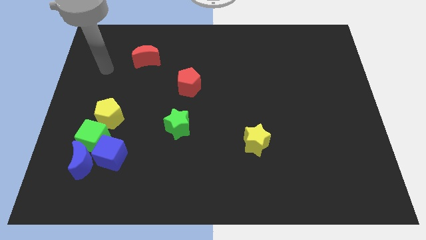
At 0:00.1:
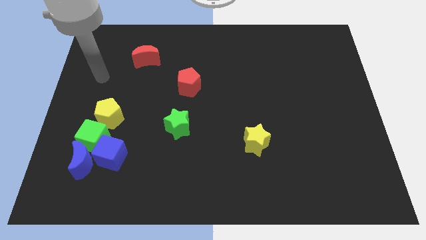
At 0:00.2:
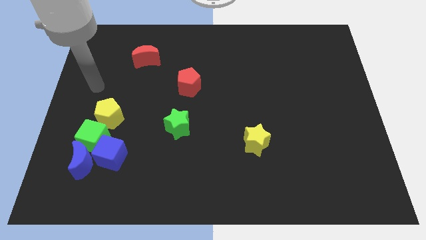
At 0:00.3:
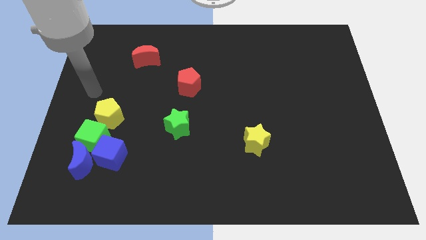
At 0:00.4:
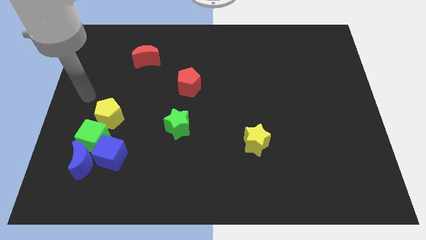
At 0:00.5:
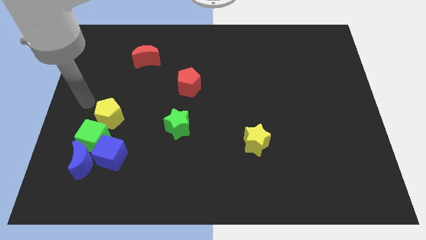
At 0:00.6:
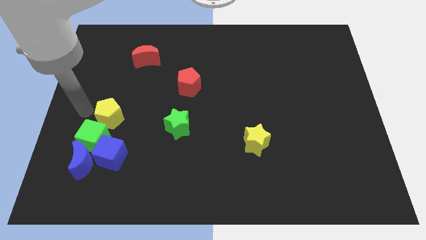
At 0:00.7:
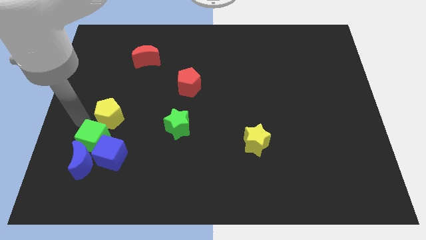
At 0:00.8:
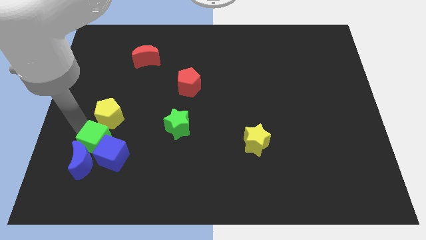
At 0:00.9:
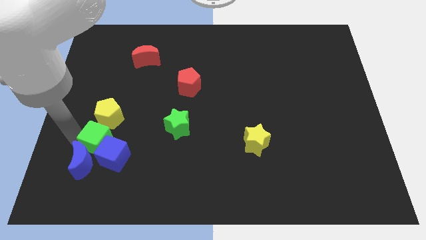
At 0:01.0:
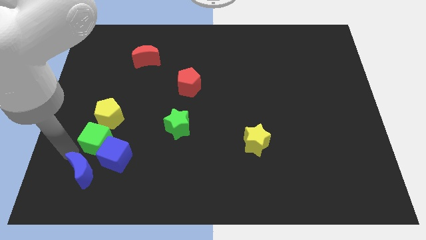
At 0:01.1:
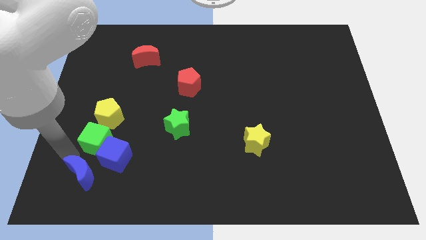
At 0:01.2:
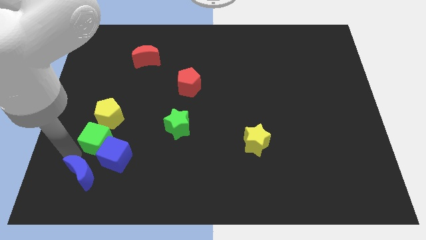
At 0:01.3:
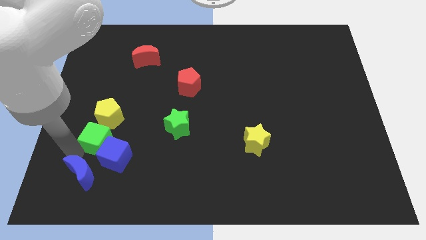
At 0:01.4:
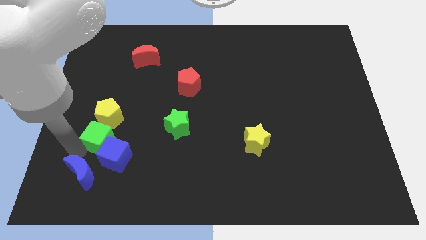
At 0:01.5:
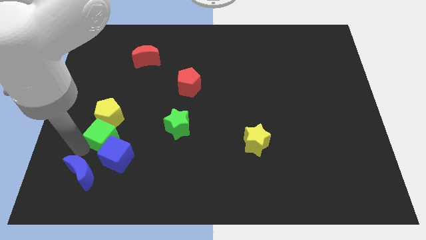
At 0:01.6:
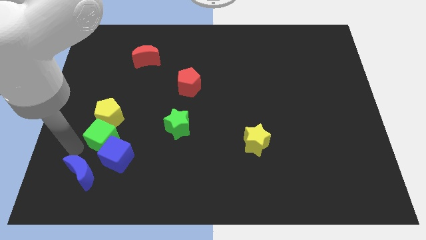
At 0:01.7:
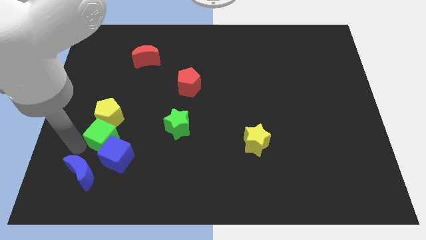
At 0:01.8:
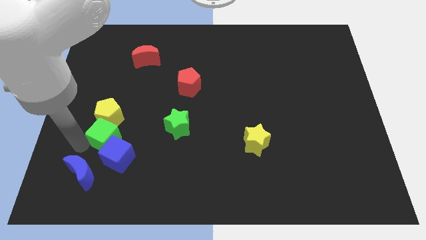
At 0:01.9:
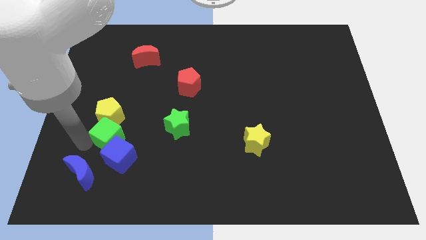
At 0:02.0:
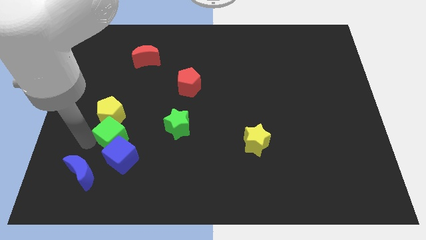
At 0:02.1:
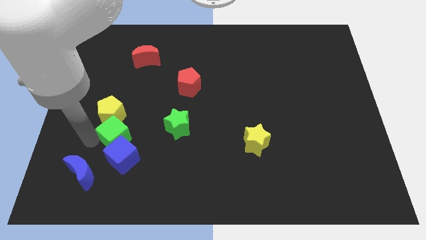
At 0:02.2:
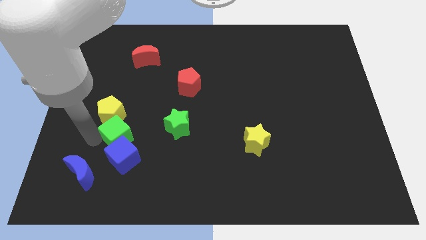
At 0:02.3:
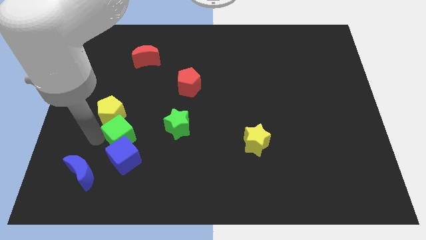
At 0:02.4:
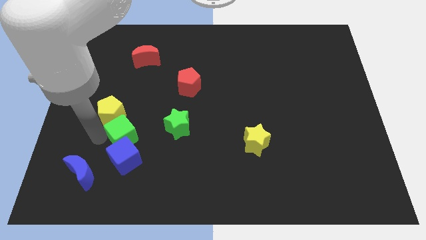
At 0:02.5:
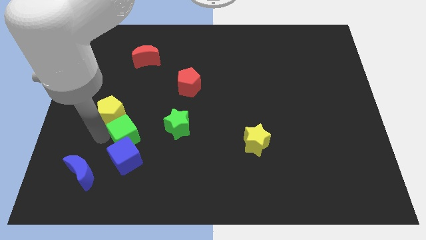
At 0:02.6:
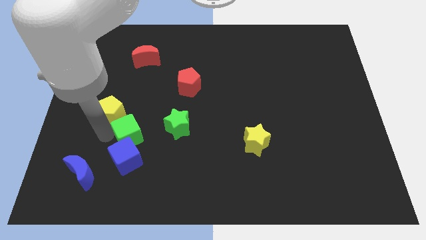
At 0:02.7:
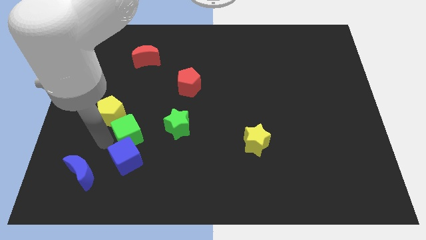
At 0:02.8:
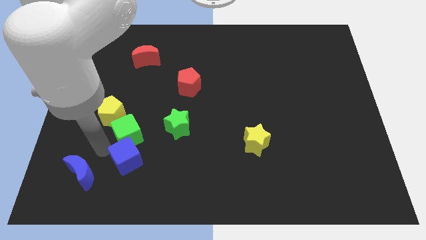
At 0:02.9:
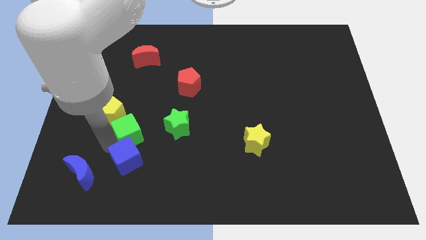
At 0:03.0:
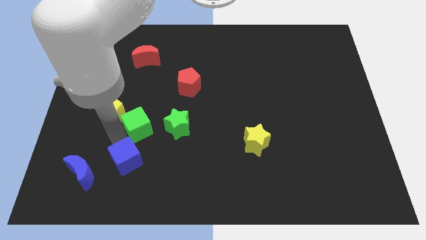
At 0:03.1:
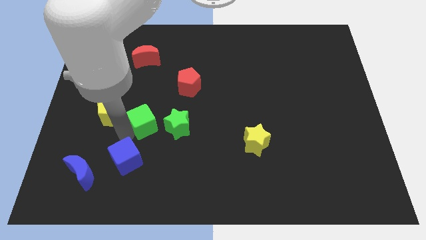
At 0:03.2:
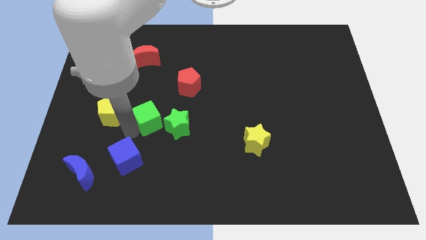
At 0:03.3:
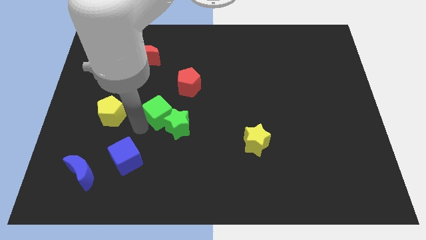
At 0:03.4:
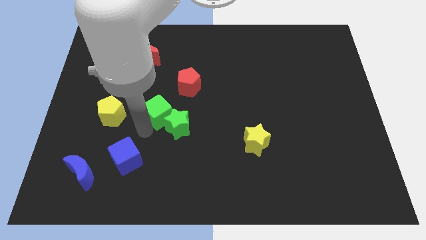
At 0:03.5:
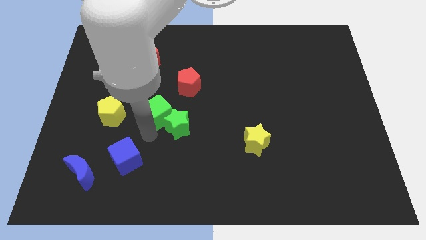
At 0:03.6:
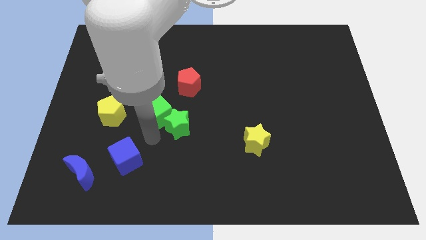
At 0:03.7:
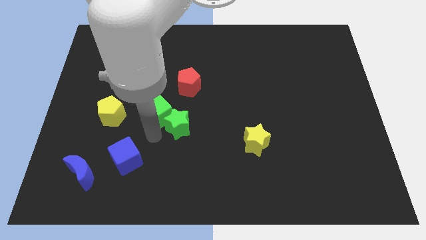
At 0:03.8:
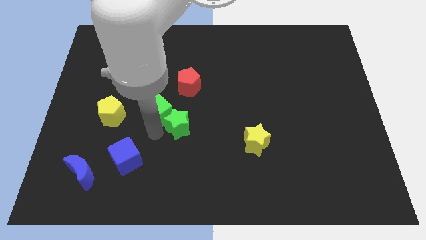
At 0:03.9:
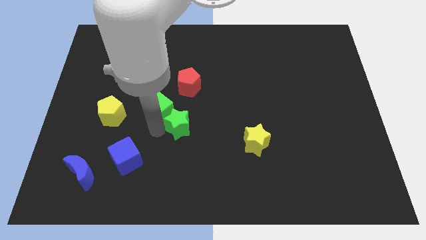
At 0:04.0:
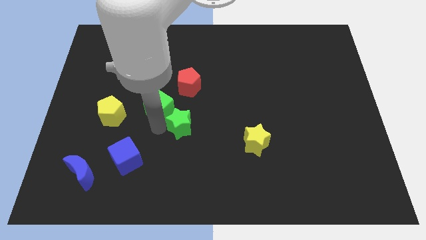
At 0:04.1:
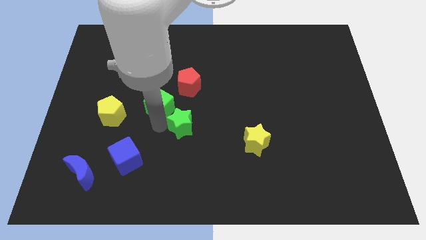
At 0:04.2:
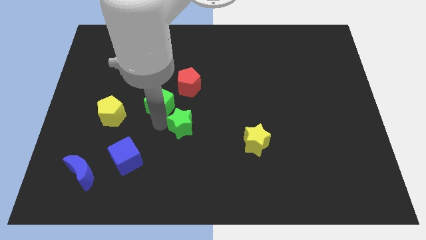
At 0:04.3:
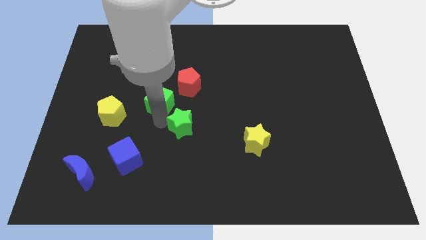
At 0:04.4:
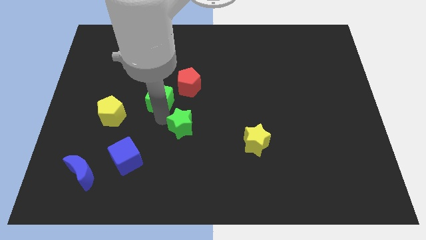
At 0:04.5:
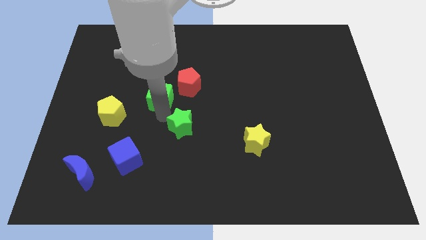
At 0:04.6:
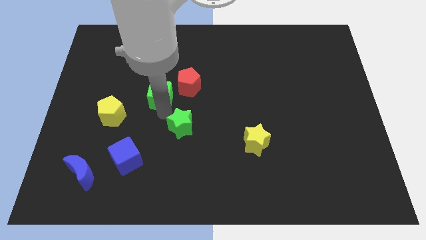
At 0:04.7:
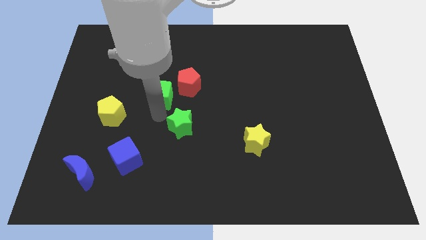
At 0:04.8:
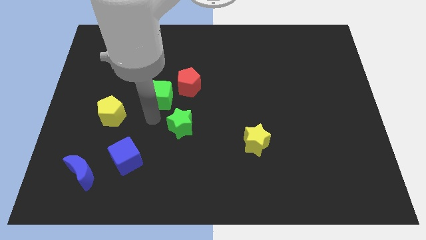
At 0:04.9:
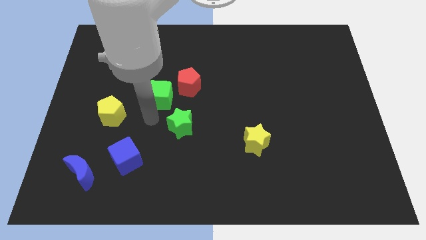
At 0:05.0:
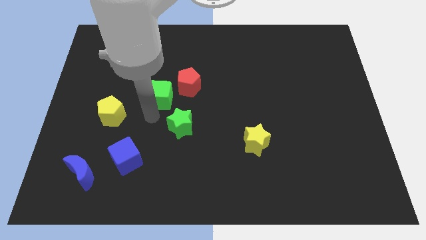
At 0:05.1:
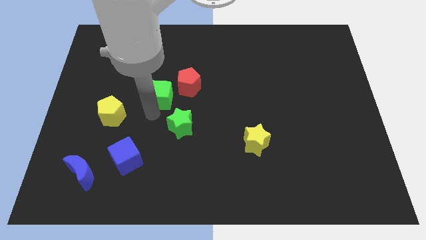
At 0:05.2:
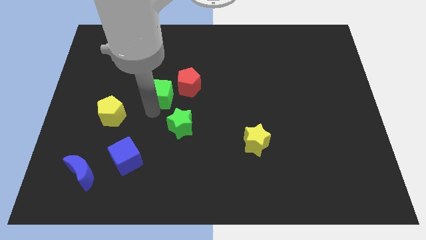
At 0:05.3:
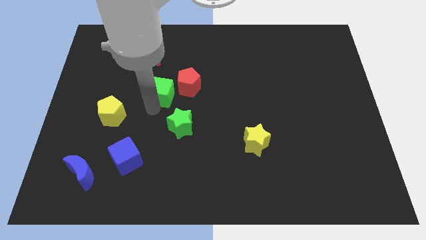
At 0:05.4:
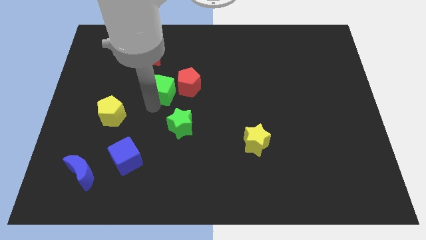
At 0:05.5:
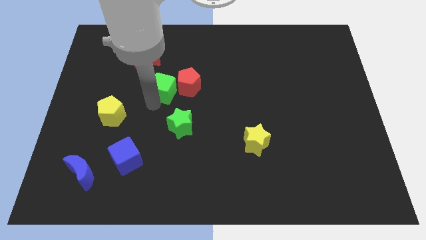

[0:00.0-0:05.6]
slide the green cube diagonally upwards and right

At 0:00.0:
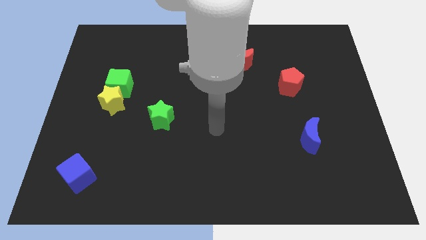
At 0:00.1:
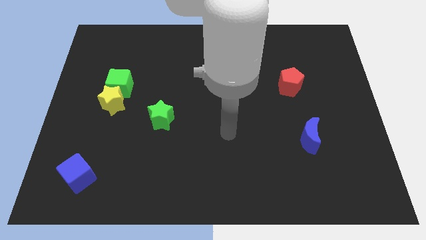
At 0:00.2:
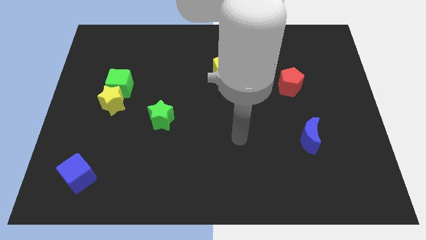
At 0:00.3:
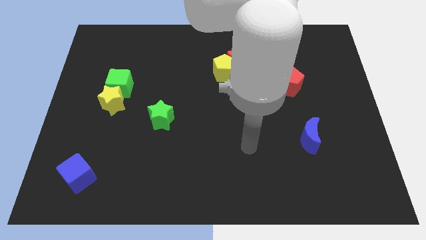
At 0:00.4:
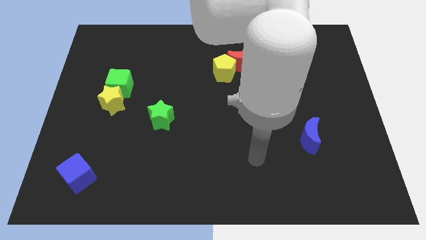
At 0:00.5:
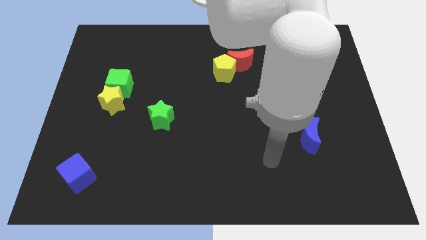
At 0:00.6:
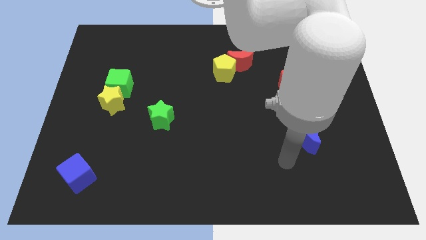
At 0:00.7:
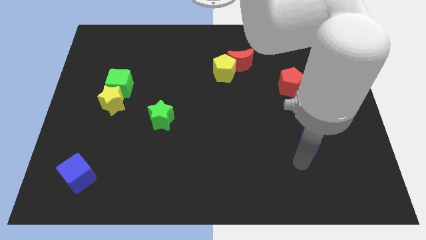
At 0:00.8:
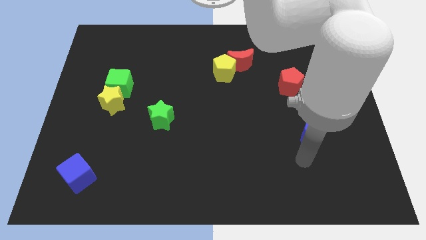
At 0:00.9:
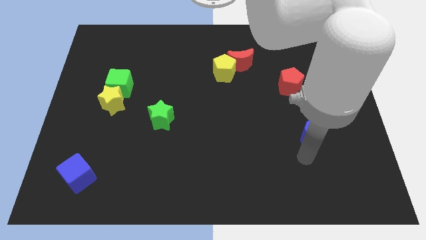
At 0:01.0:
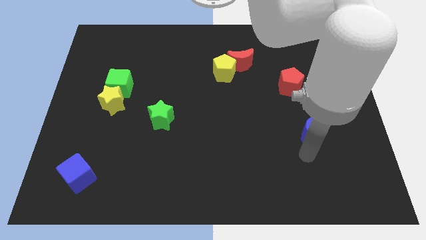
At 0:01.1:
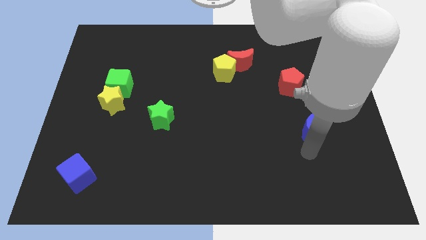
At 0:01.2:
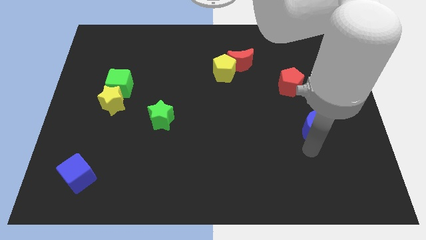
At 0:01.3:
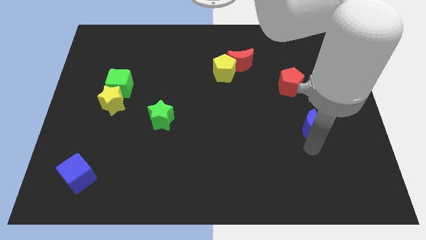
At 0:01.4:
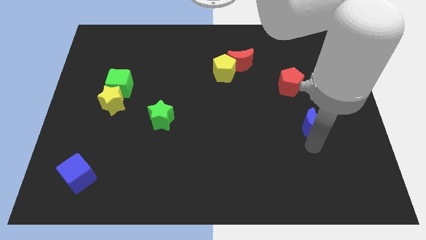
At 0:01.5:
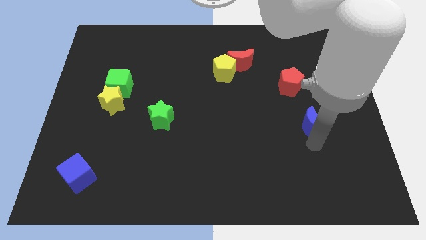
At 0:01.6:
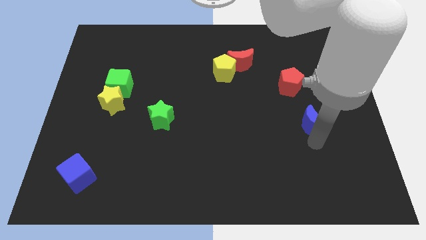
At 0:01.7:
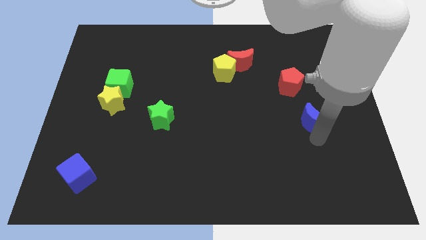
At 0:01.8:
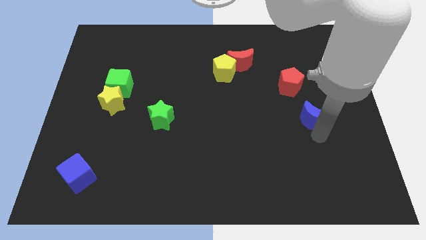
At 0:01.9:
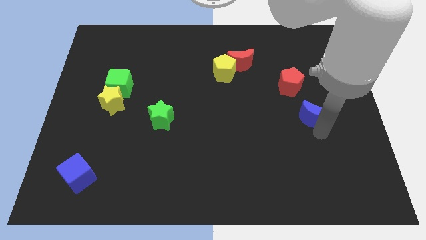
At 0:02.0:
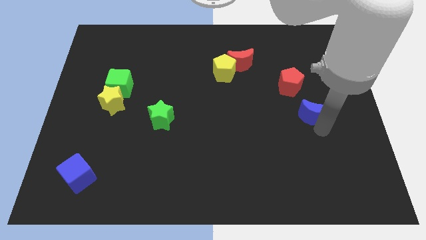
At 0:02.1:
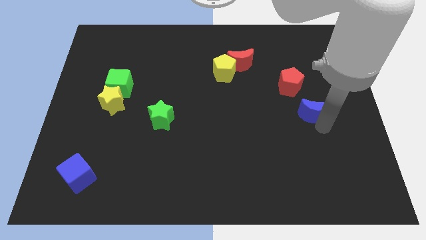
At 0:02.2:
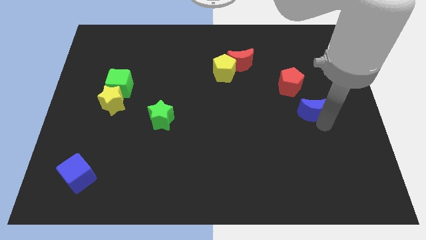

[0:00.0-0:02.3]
slide the blue moon up somewhat
